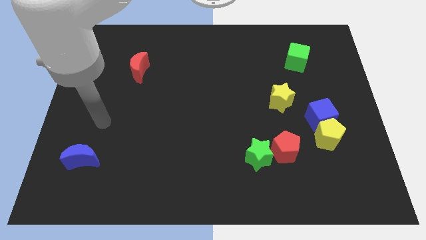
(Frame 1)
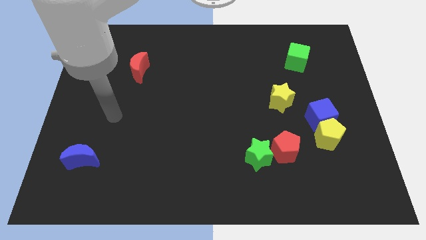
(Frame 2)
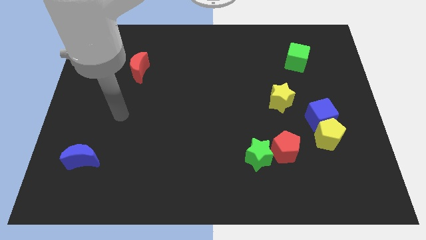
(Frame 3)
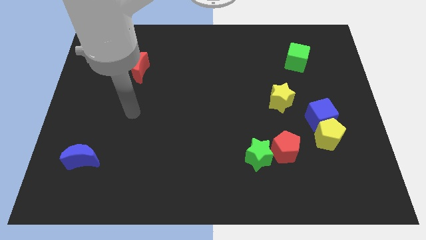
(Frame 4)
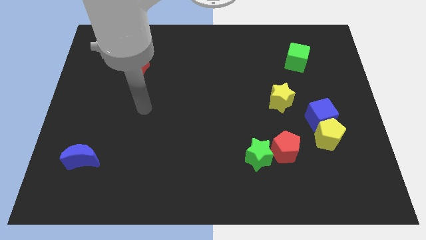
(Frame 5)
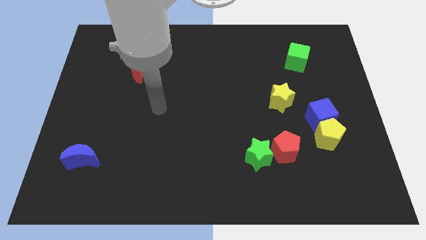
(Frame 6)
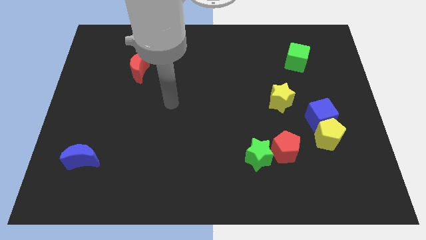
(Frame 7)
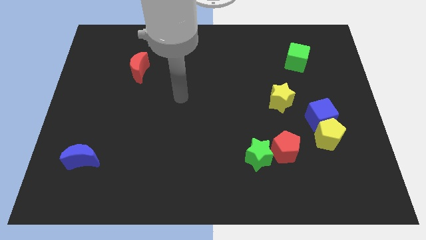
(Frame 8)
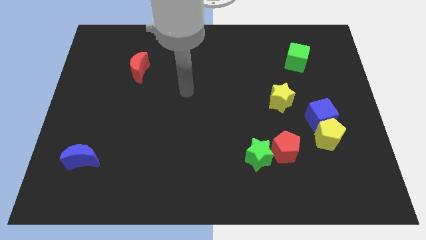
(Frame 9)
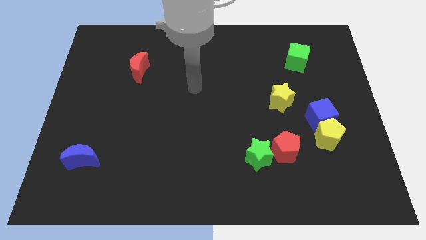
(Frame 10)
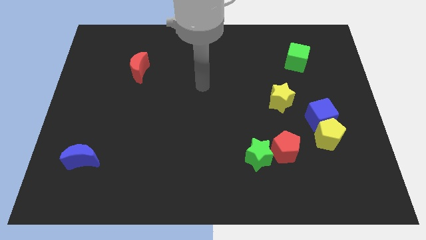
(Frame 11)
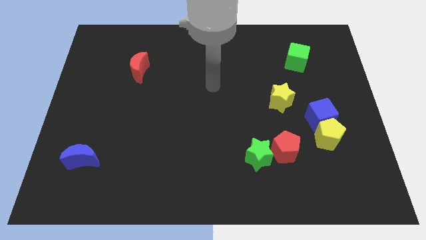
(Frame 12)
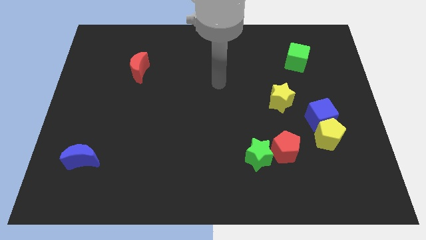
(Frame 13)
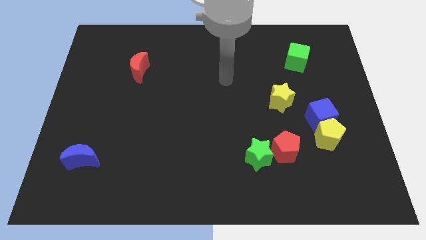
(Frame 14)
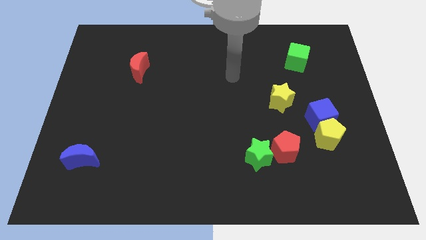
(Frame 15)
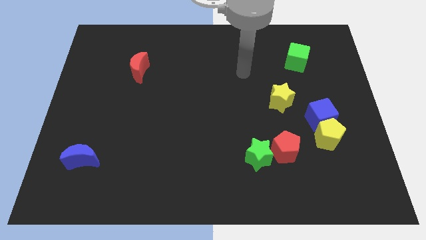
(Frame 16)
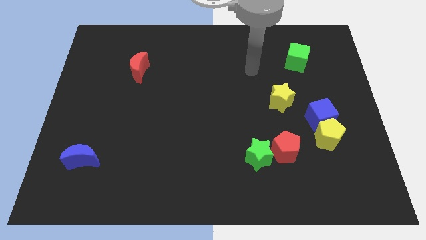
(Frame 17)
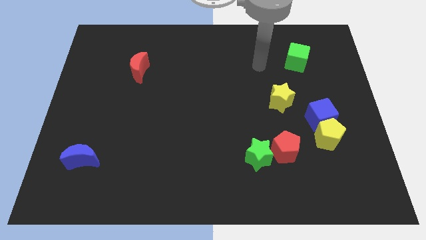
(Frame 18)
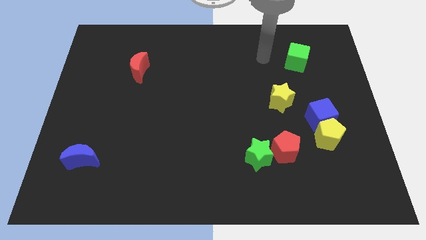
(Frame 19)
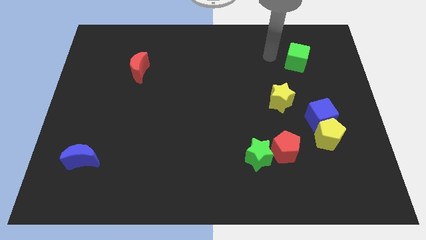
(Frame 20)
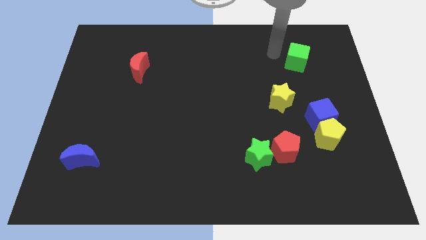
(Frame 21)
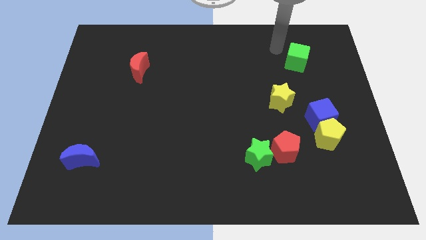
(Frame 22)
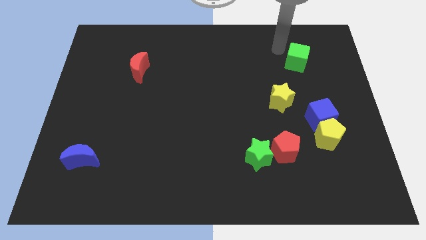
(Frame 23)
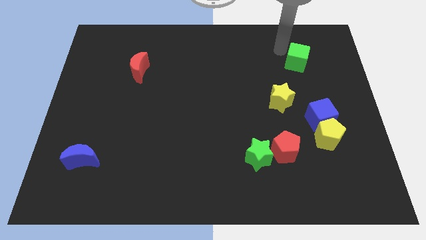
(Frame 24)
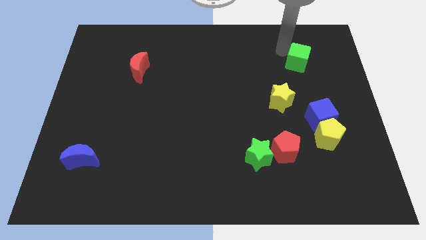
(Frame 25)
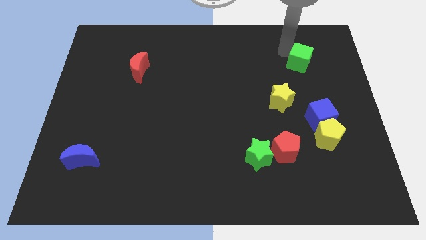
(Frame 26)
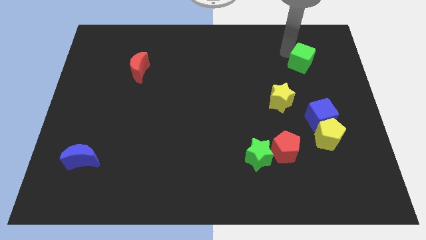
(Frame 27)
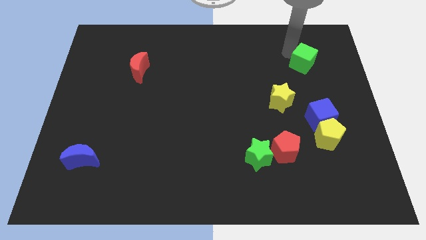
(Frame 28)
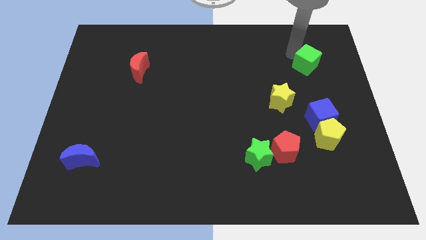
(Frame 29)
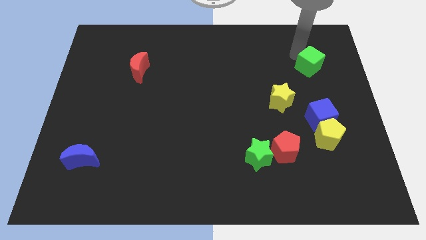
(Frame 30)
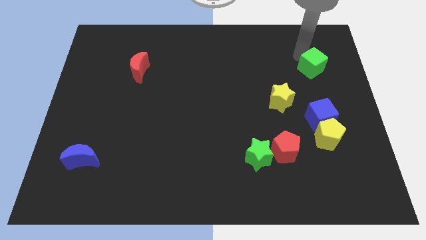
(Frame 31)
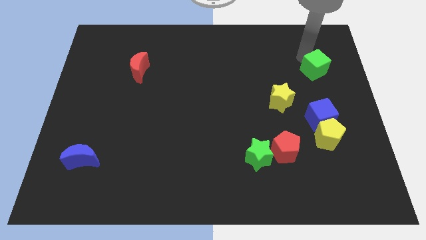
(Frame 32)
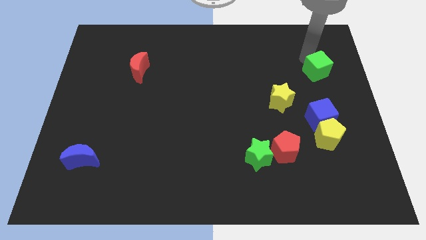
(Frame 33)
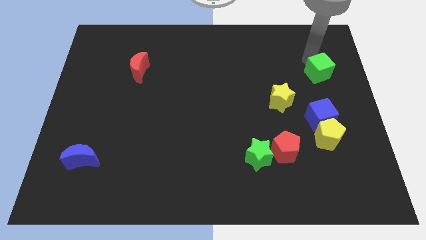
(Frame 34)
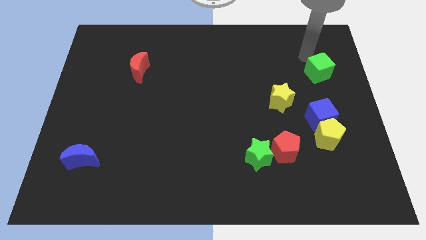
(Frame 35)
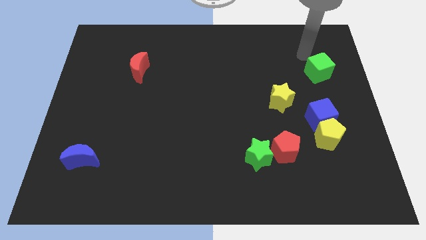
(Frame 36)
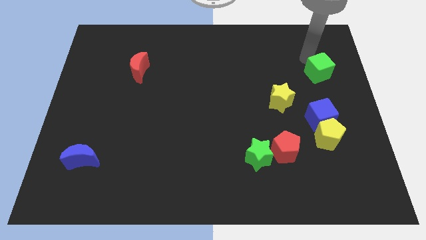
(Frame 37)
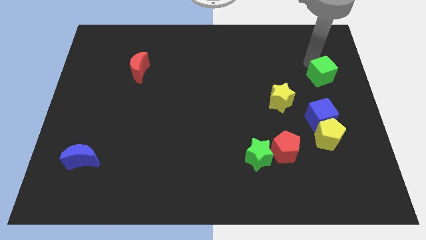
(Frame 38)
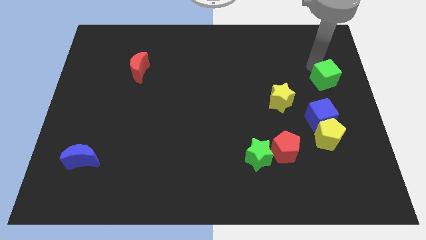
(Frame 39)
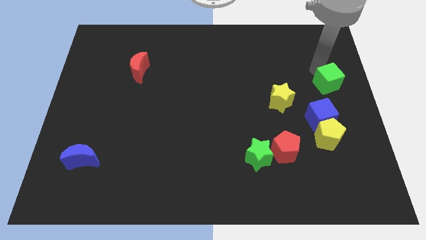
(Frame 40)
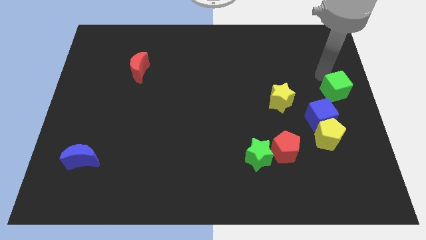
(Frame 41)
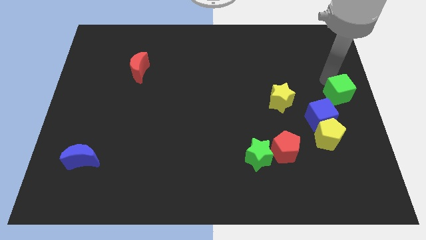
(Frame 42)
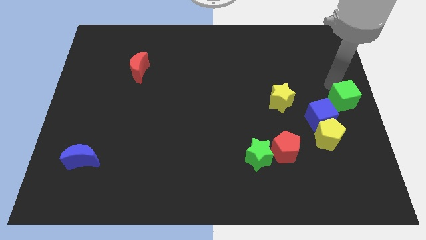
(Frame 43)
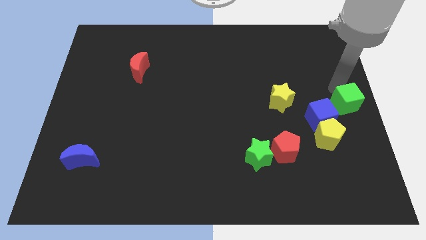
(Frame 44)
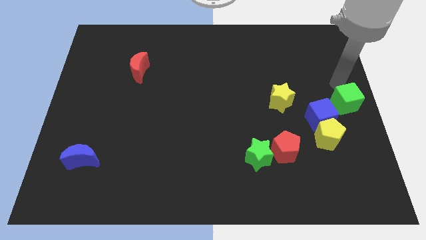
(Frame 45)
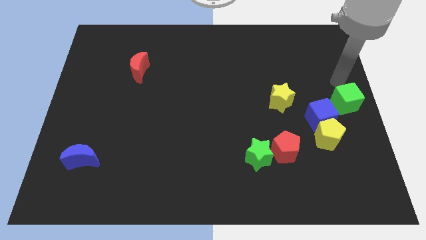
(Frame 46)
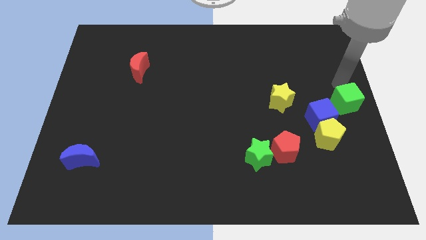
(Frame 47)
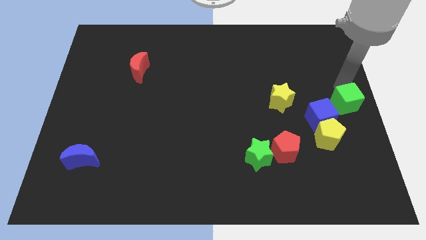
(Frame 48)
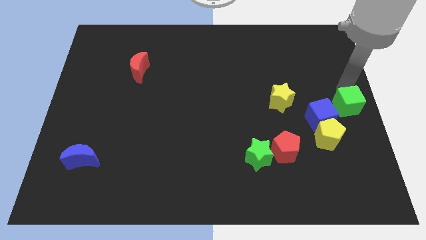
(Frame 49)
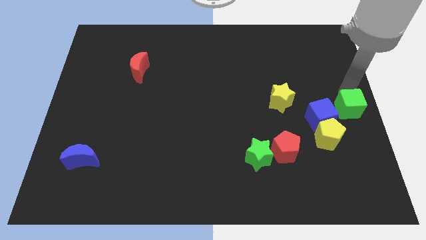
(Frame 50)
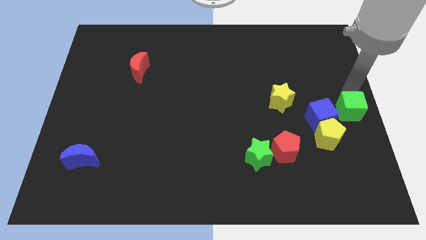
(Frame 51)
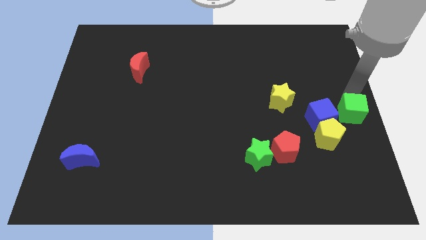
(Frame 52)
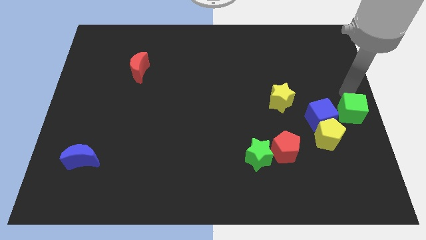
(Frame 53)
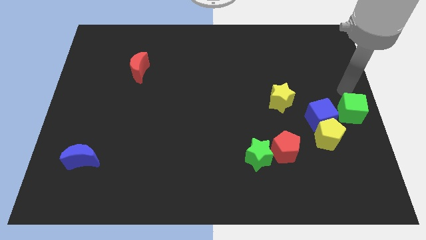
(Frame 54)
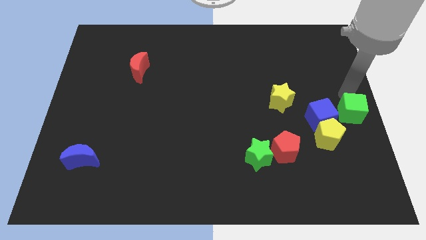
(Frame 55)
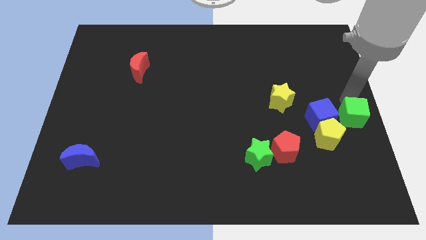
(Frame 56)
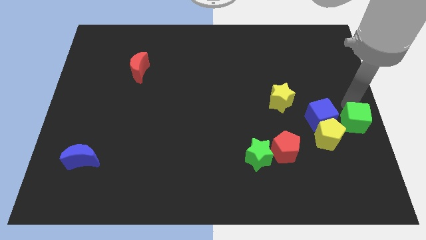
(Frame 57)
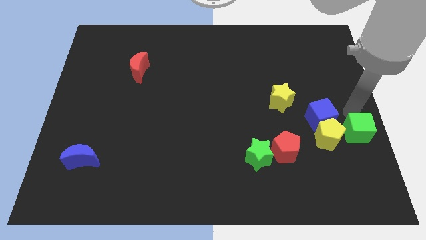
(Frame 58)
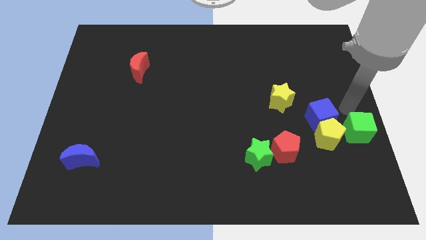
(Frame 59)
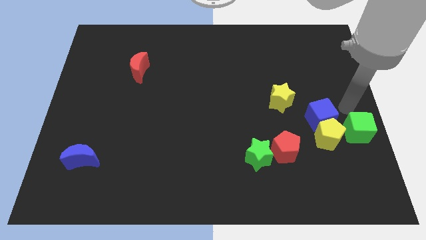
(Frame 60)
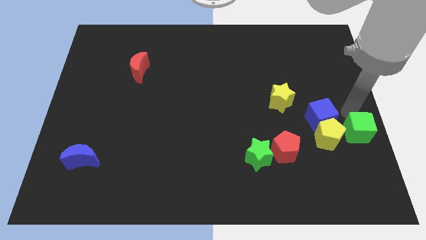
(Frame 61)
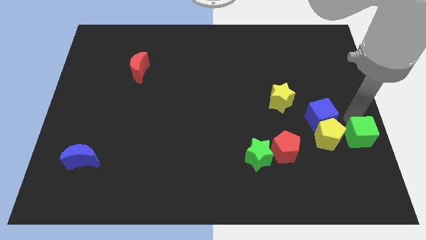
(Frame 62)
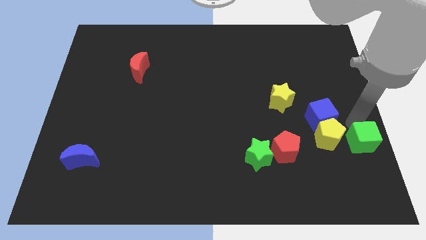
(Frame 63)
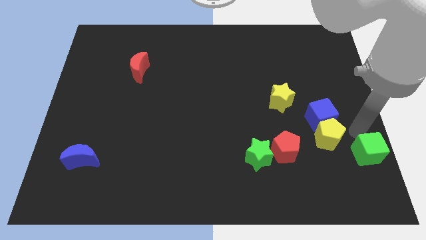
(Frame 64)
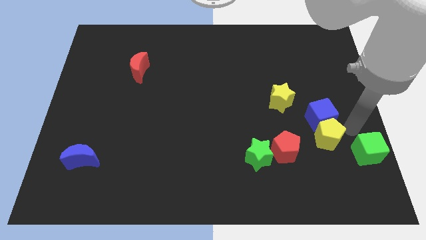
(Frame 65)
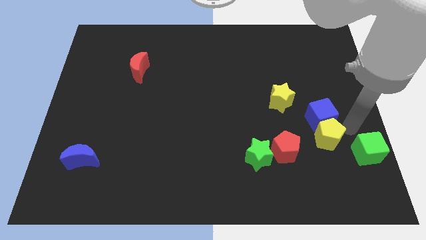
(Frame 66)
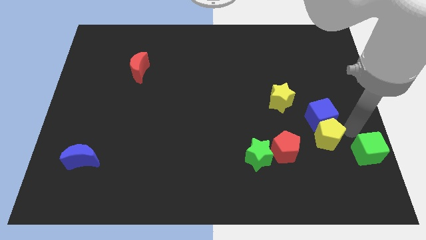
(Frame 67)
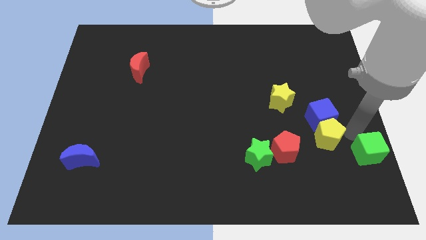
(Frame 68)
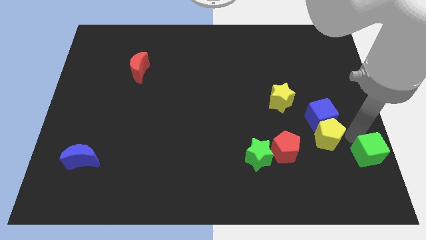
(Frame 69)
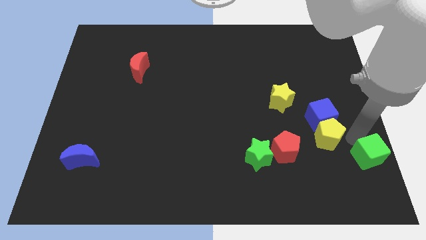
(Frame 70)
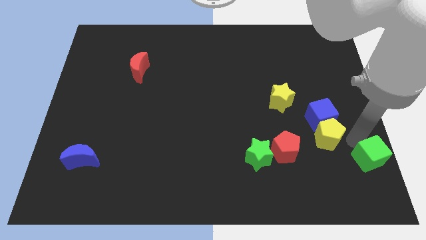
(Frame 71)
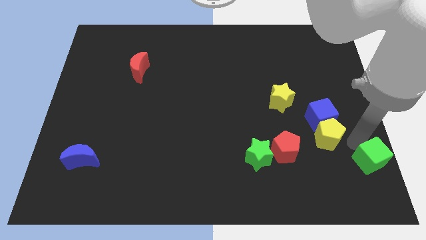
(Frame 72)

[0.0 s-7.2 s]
slide the green cube to the bottom right
